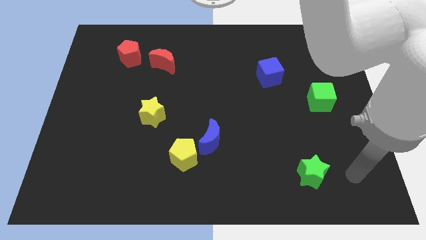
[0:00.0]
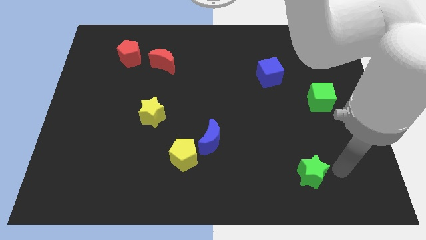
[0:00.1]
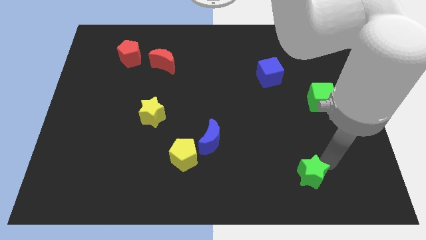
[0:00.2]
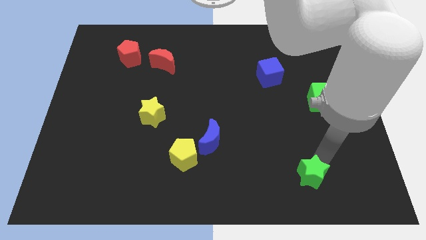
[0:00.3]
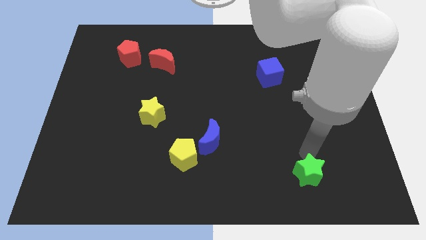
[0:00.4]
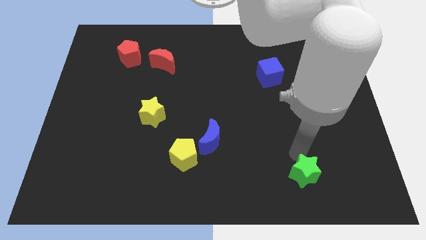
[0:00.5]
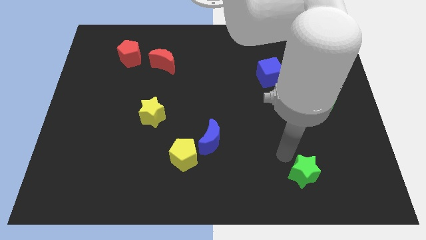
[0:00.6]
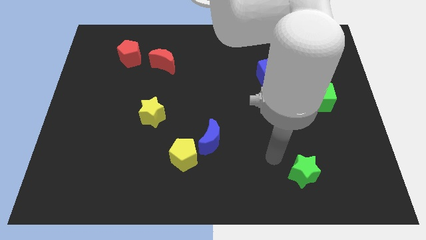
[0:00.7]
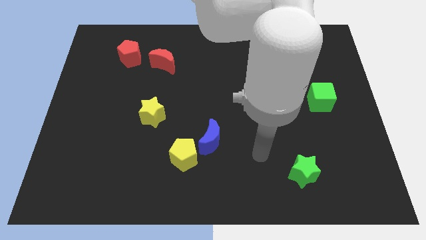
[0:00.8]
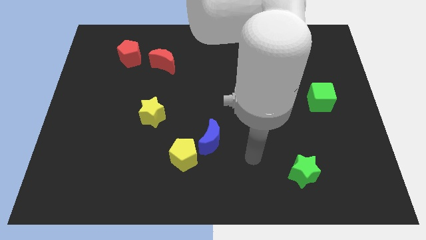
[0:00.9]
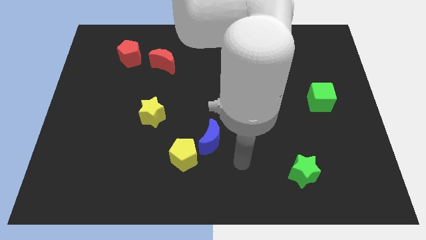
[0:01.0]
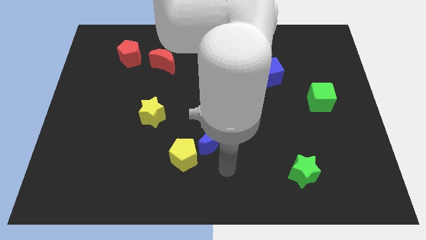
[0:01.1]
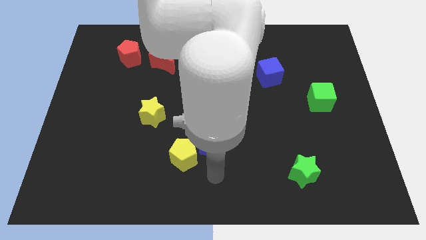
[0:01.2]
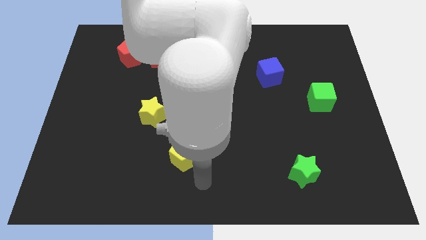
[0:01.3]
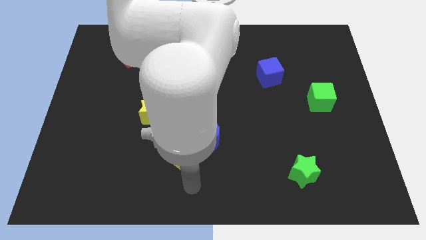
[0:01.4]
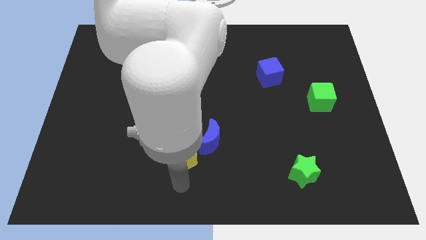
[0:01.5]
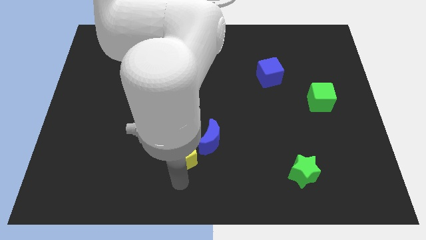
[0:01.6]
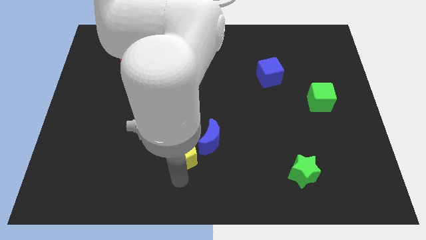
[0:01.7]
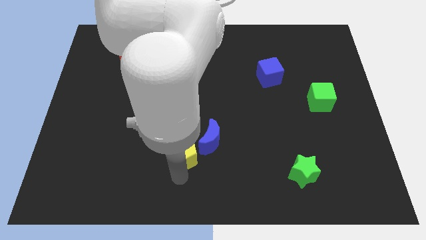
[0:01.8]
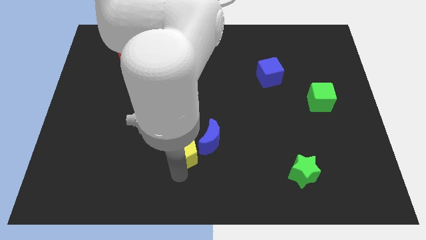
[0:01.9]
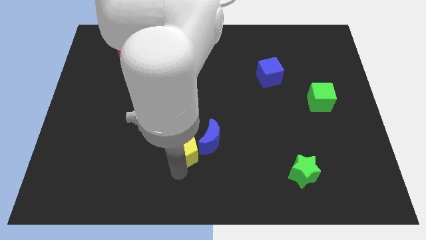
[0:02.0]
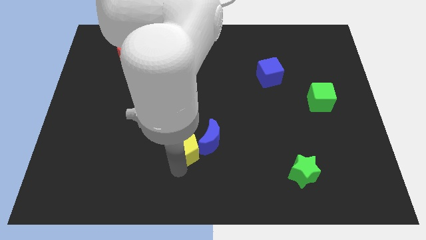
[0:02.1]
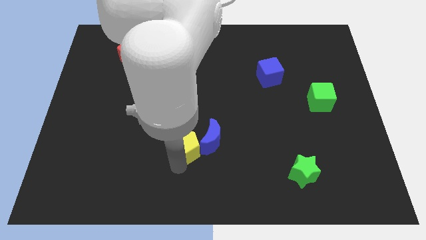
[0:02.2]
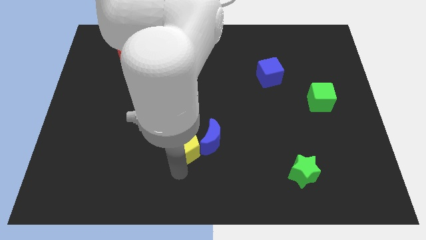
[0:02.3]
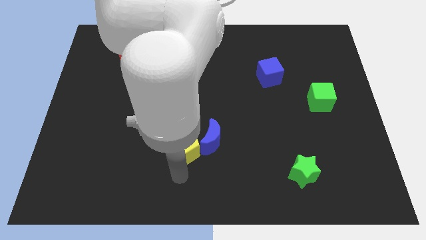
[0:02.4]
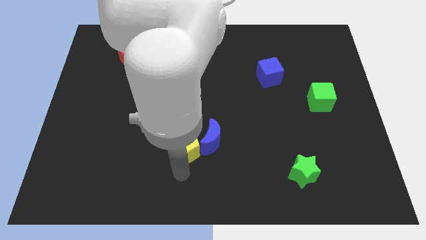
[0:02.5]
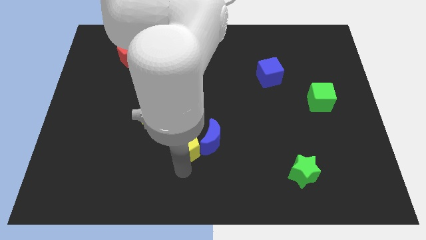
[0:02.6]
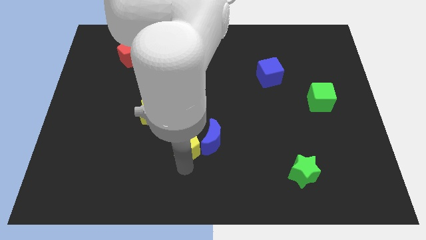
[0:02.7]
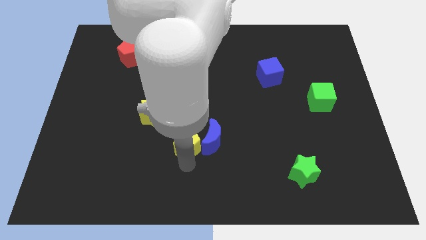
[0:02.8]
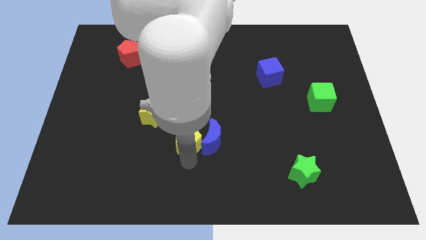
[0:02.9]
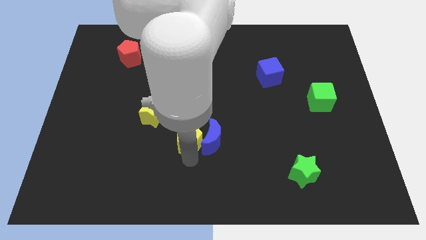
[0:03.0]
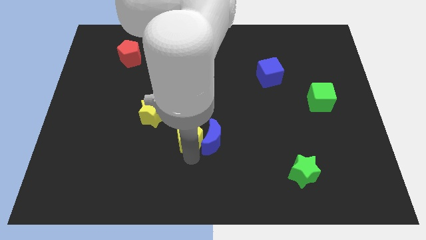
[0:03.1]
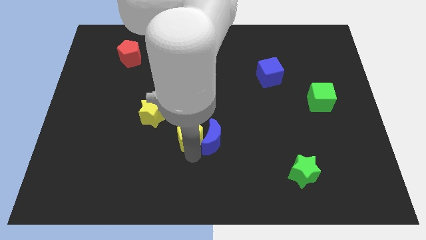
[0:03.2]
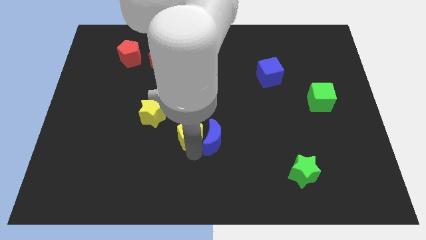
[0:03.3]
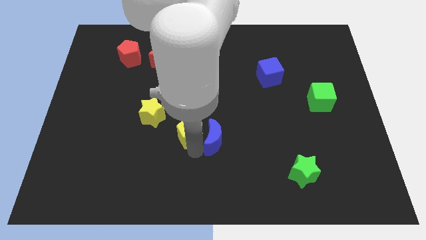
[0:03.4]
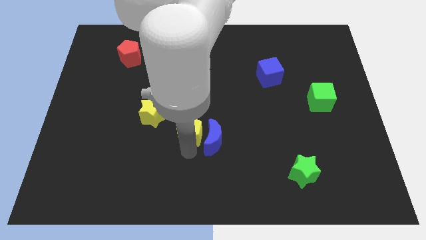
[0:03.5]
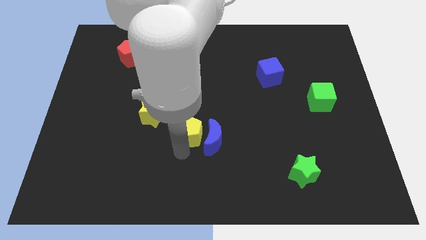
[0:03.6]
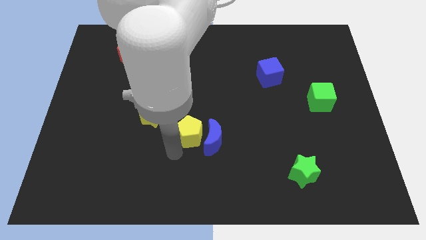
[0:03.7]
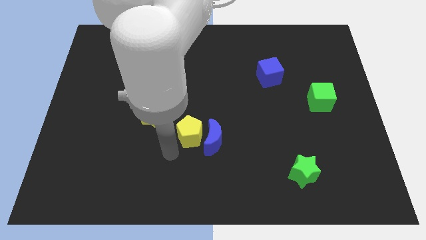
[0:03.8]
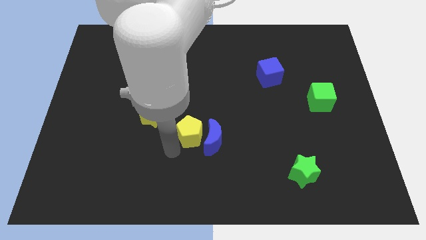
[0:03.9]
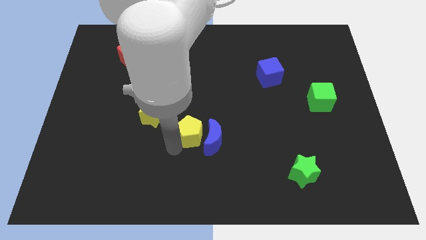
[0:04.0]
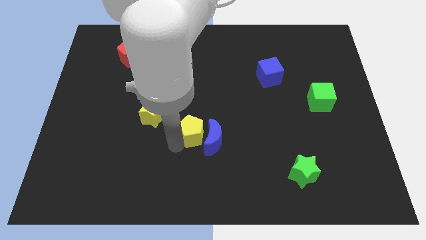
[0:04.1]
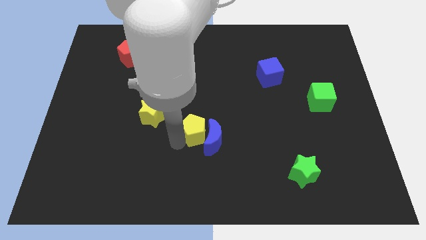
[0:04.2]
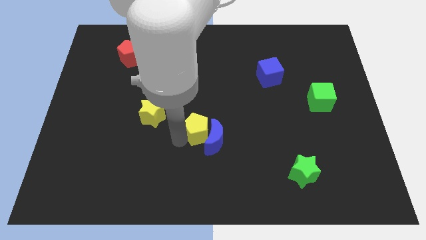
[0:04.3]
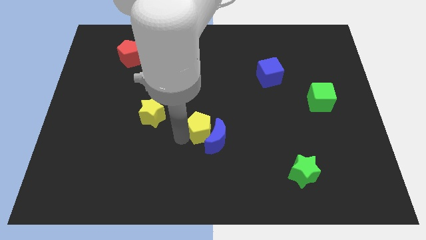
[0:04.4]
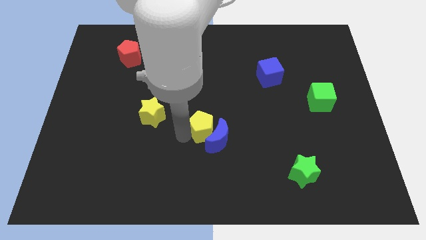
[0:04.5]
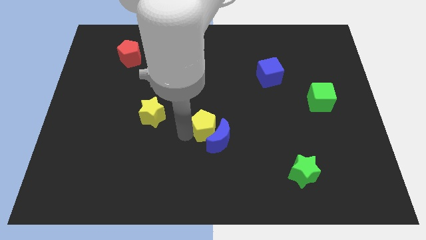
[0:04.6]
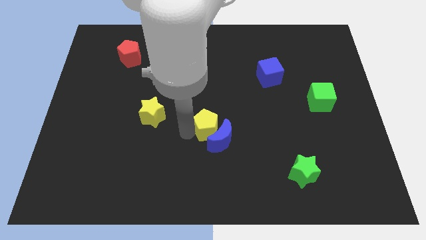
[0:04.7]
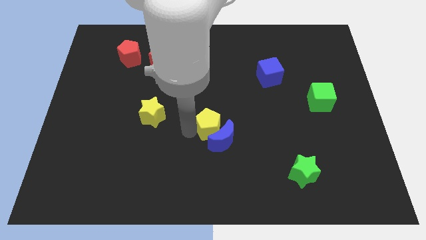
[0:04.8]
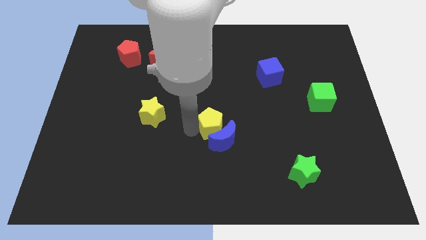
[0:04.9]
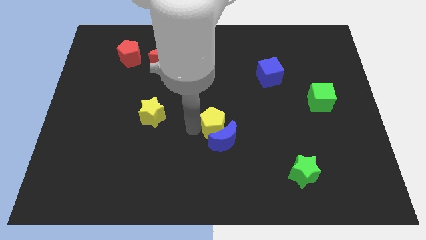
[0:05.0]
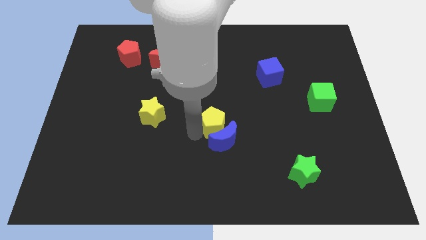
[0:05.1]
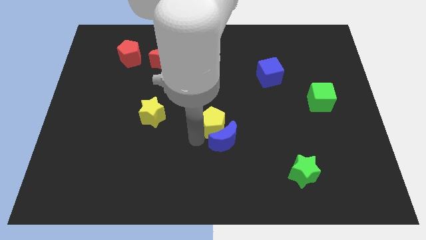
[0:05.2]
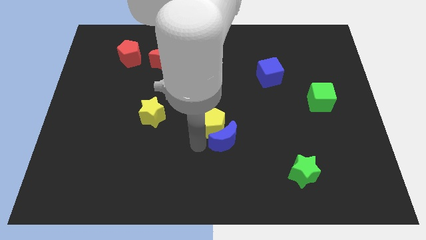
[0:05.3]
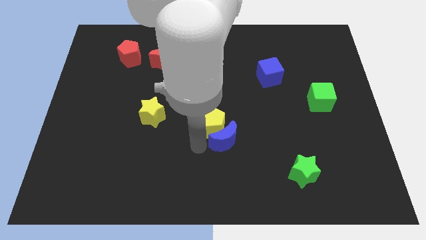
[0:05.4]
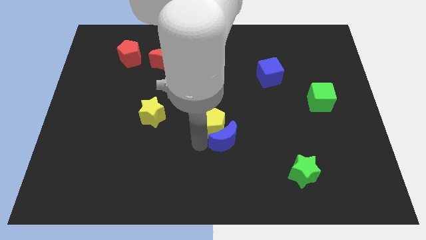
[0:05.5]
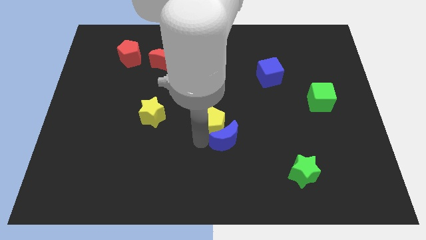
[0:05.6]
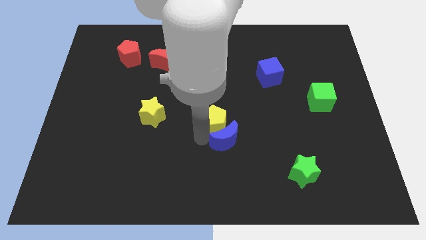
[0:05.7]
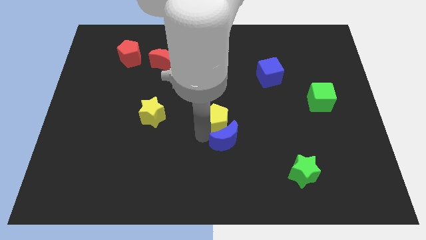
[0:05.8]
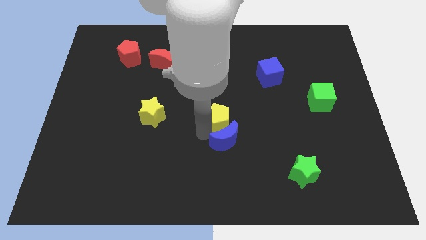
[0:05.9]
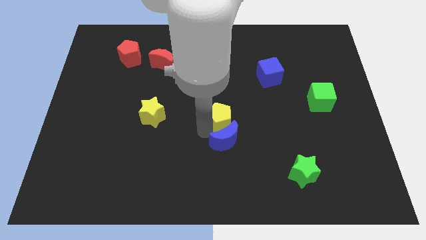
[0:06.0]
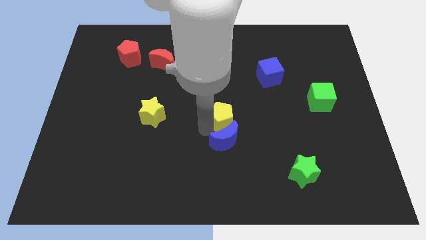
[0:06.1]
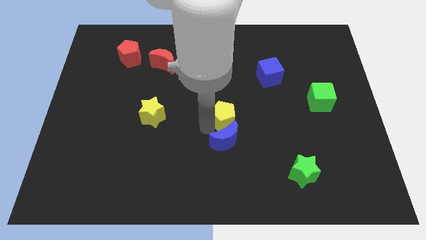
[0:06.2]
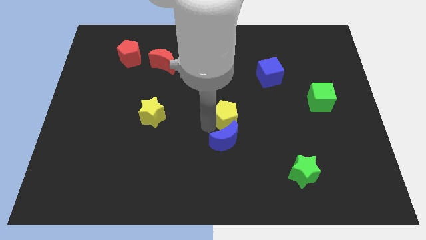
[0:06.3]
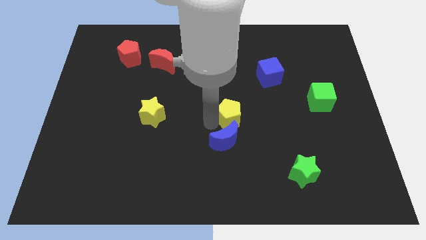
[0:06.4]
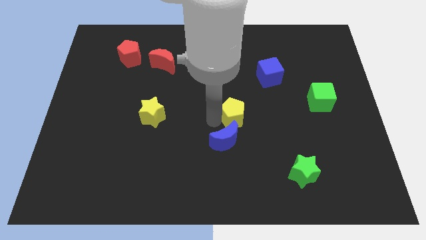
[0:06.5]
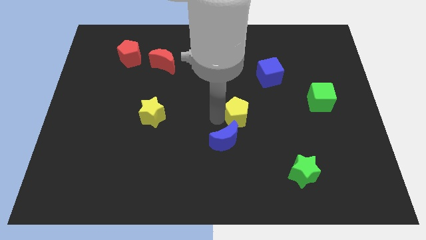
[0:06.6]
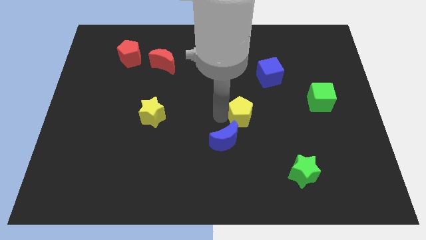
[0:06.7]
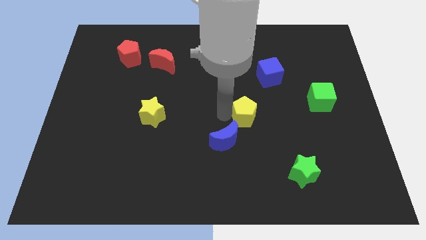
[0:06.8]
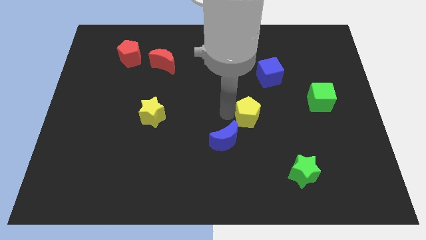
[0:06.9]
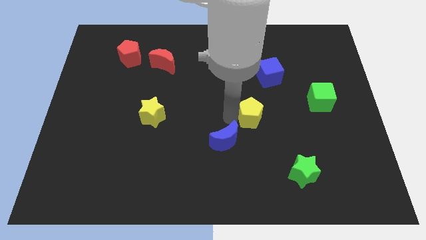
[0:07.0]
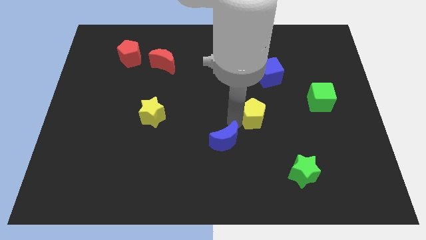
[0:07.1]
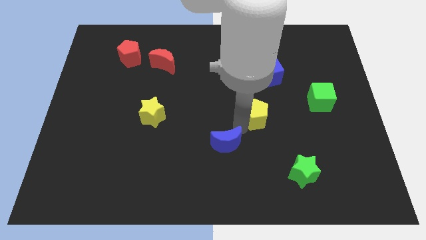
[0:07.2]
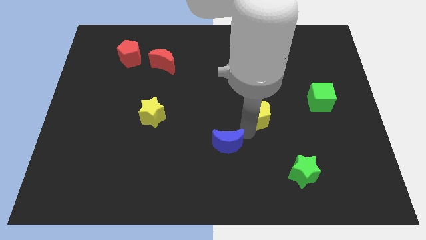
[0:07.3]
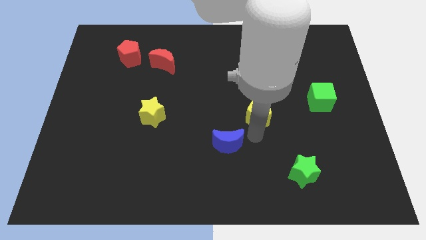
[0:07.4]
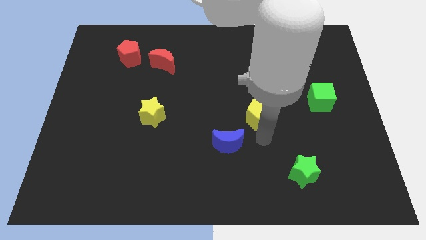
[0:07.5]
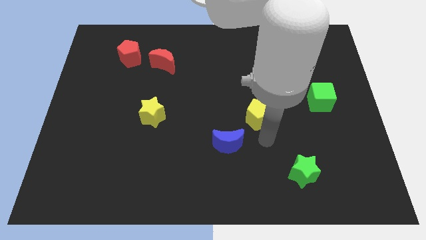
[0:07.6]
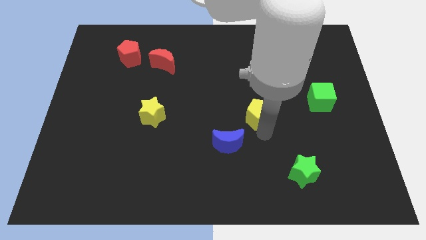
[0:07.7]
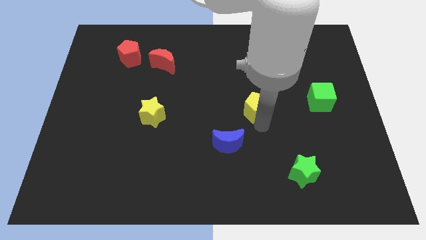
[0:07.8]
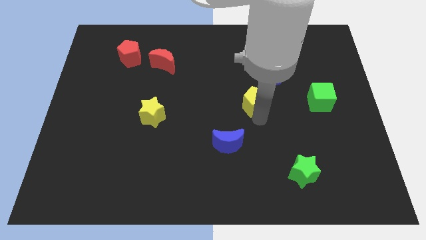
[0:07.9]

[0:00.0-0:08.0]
slide the yellow pentagon diagonally down and to the left of the blue cube
